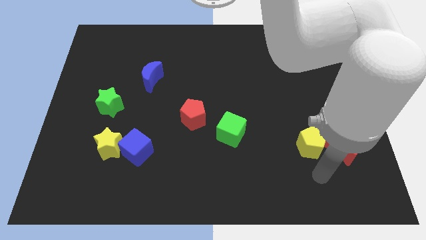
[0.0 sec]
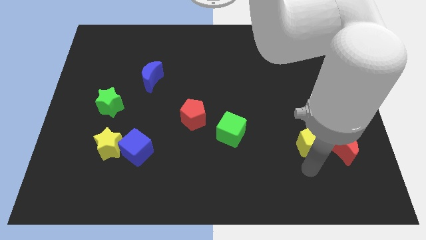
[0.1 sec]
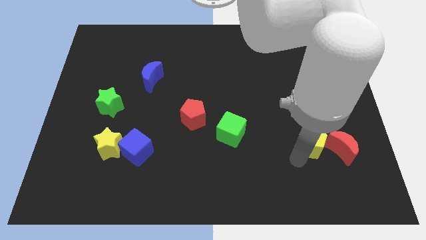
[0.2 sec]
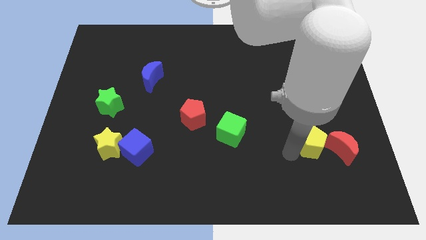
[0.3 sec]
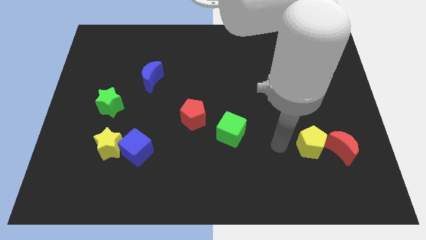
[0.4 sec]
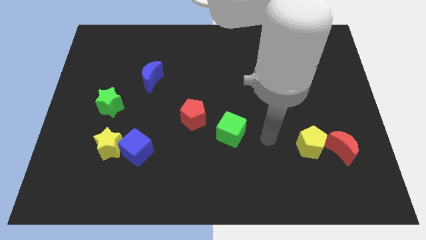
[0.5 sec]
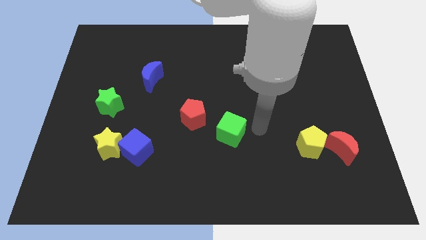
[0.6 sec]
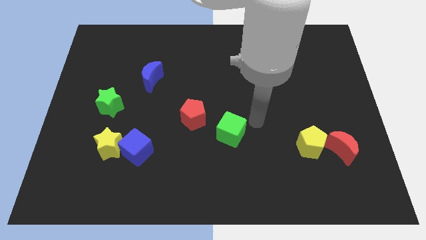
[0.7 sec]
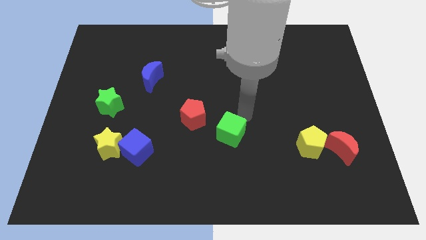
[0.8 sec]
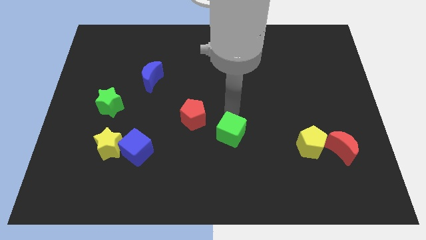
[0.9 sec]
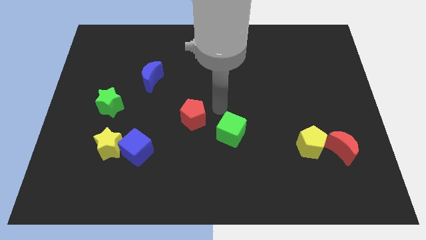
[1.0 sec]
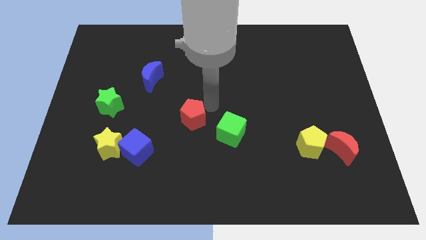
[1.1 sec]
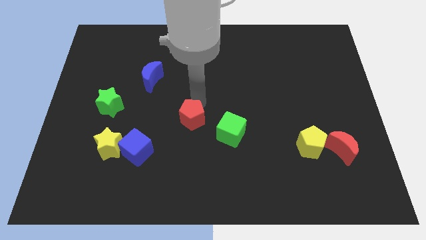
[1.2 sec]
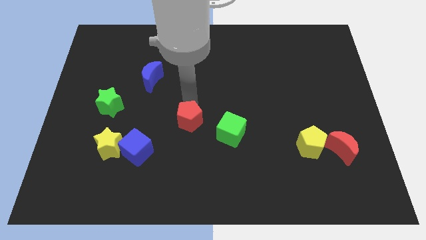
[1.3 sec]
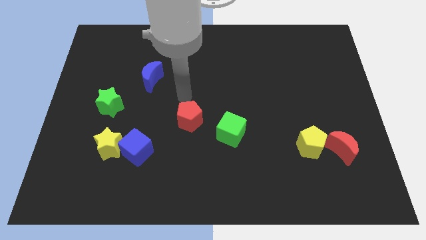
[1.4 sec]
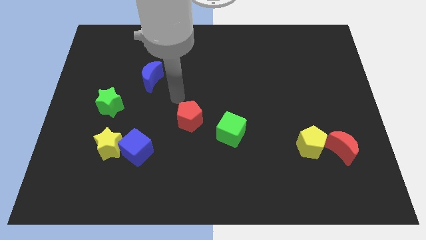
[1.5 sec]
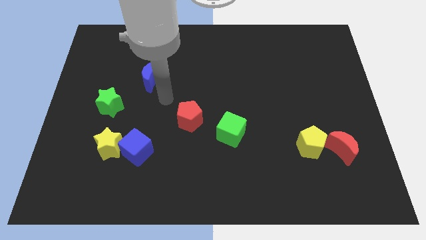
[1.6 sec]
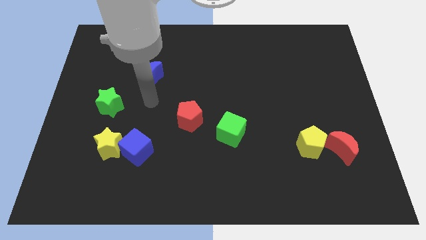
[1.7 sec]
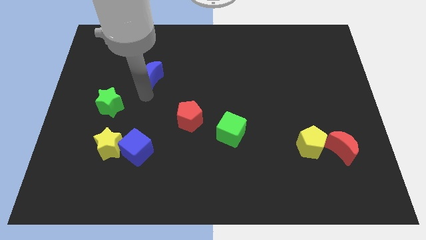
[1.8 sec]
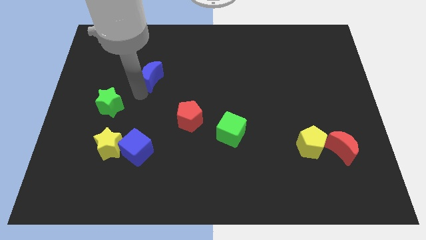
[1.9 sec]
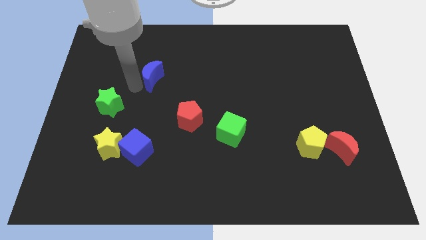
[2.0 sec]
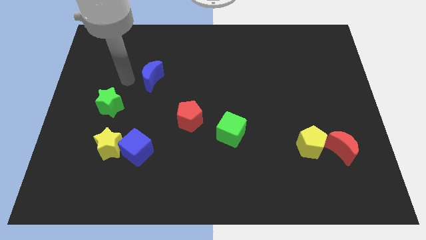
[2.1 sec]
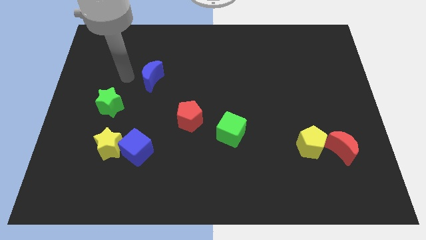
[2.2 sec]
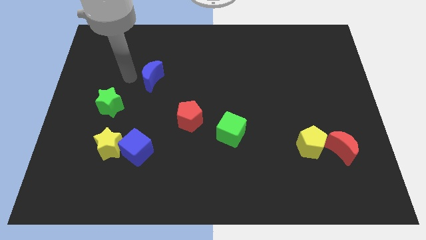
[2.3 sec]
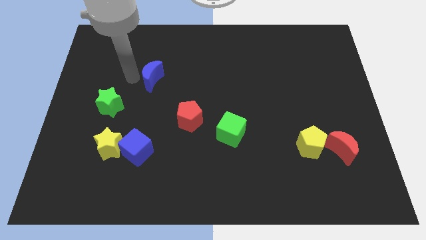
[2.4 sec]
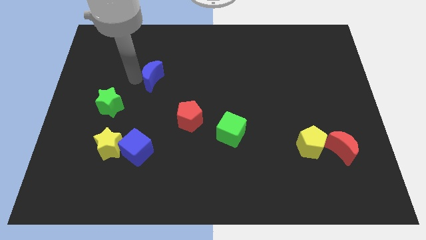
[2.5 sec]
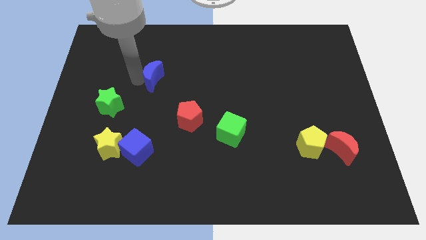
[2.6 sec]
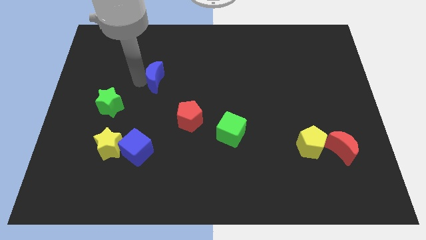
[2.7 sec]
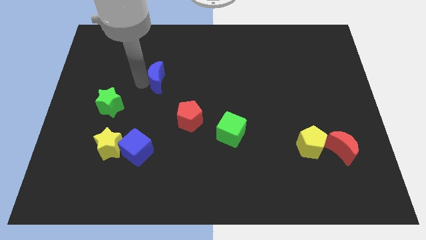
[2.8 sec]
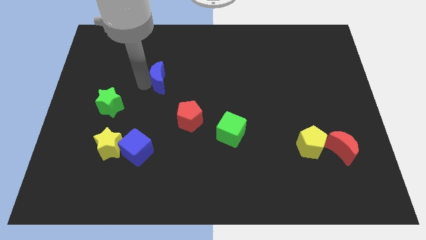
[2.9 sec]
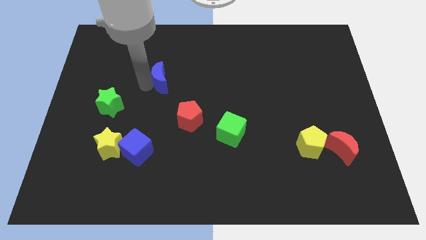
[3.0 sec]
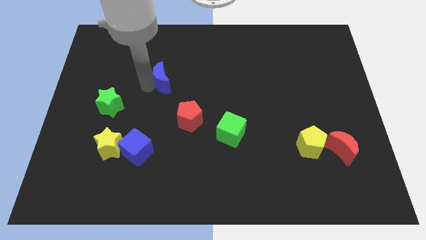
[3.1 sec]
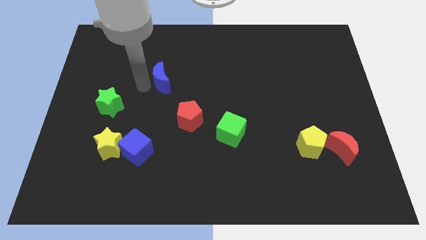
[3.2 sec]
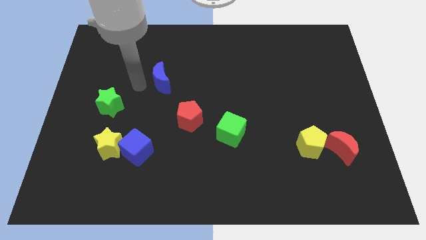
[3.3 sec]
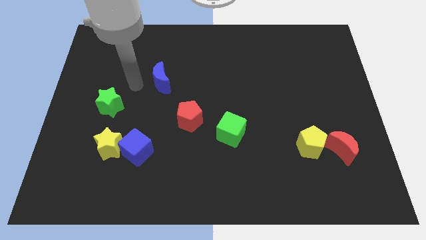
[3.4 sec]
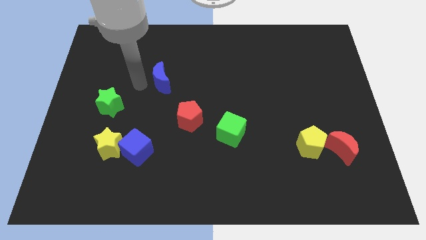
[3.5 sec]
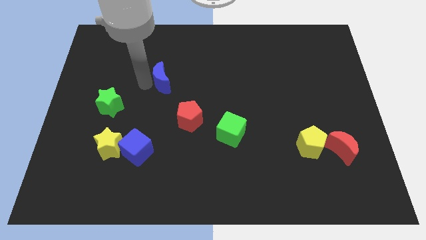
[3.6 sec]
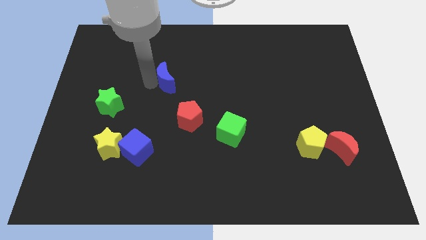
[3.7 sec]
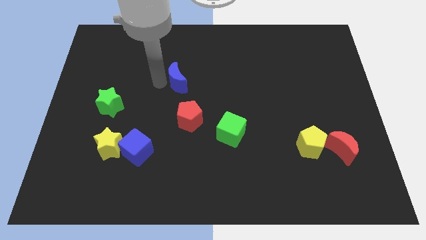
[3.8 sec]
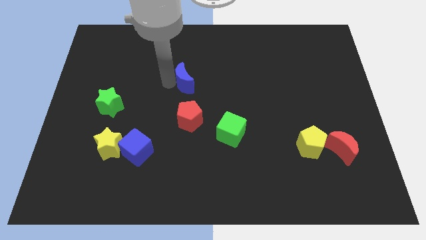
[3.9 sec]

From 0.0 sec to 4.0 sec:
slightly slide the blue moon right

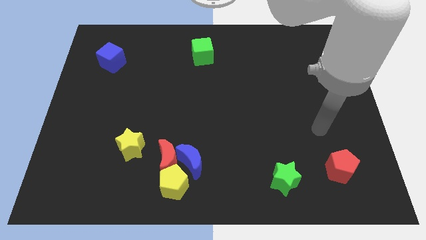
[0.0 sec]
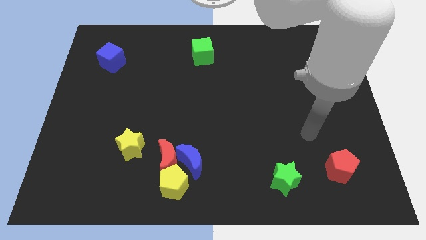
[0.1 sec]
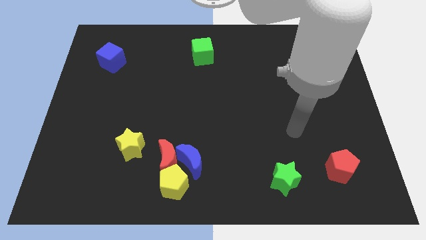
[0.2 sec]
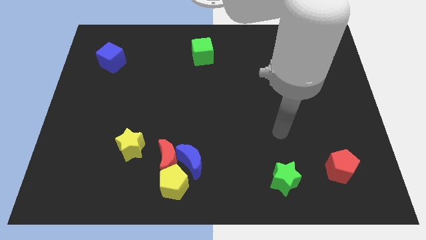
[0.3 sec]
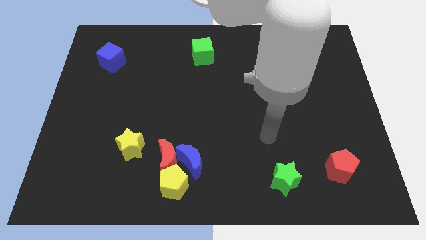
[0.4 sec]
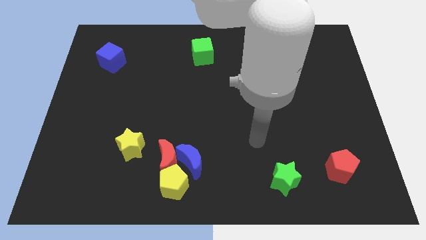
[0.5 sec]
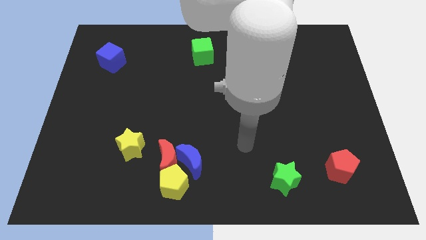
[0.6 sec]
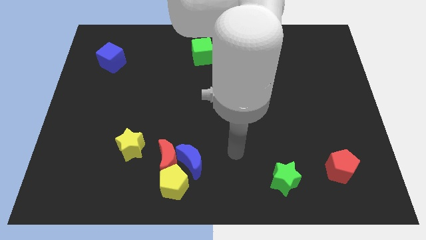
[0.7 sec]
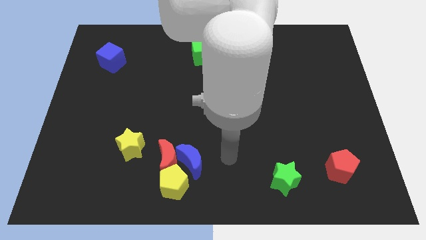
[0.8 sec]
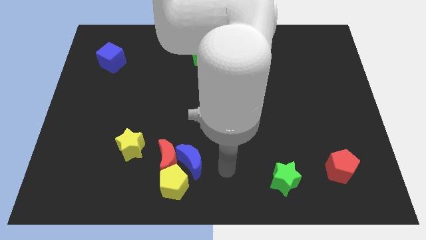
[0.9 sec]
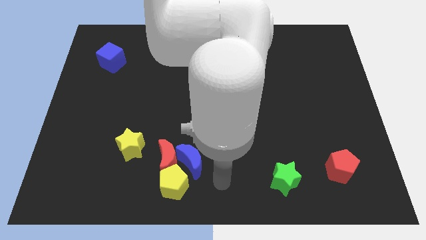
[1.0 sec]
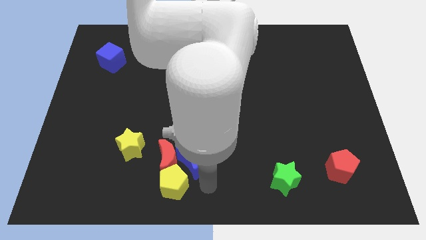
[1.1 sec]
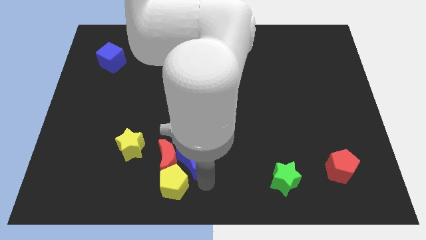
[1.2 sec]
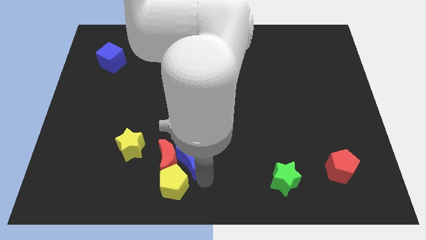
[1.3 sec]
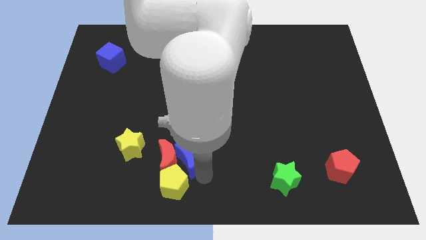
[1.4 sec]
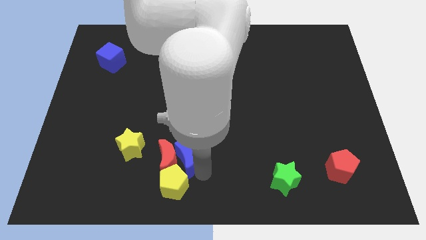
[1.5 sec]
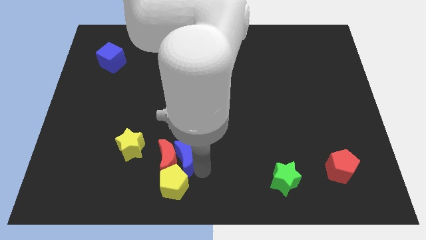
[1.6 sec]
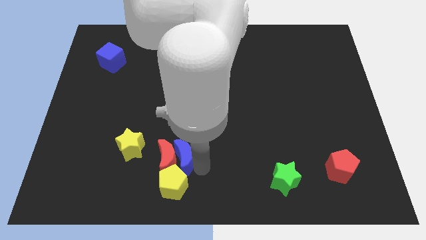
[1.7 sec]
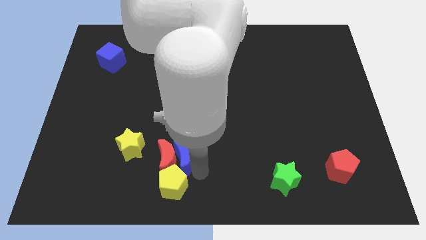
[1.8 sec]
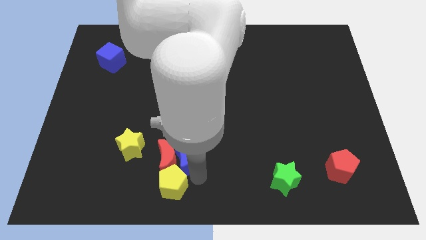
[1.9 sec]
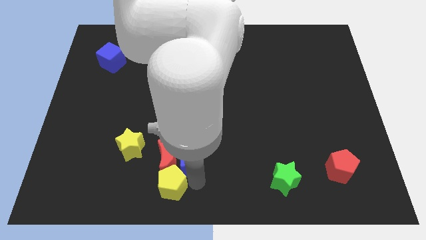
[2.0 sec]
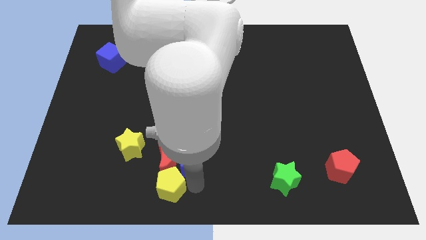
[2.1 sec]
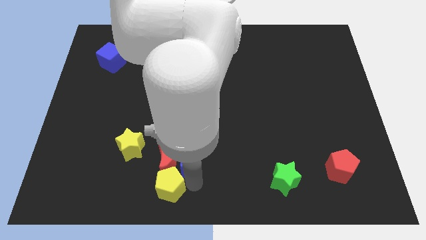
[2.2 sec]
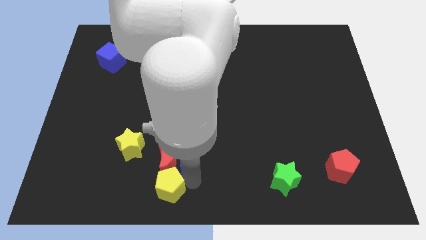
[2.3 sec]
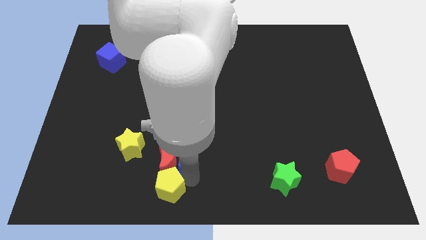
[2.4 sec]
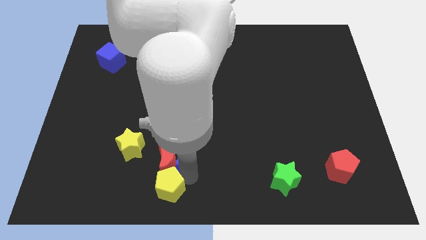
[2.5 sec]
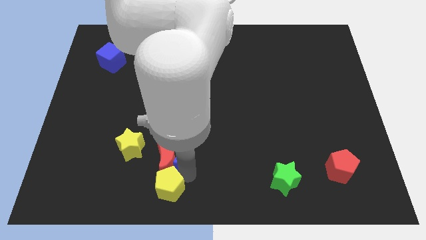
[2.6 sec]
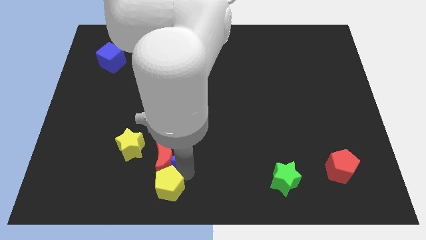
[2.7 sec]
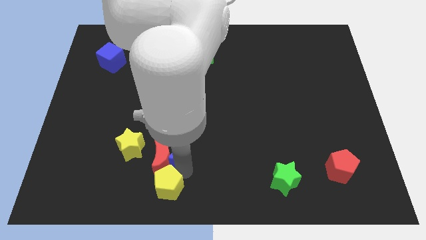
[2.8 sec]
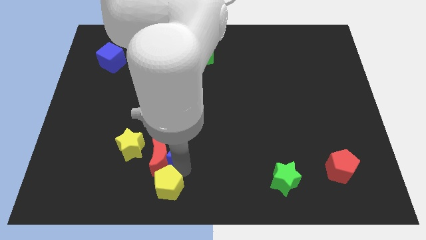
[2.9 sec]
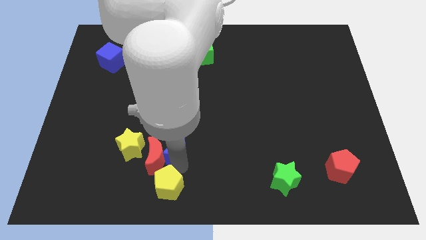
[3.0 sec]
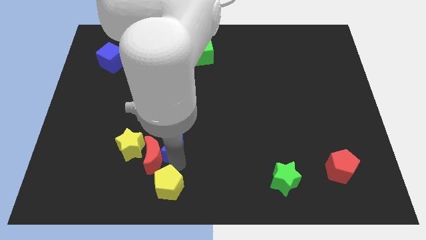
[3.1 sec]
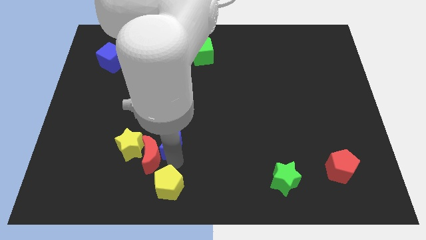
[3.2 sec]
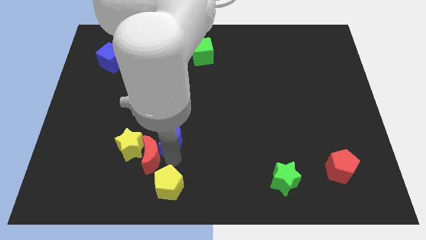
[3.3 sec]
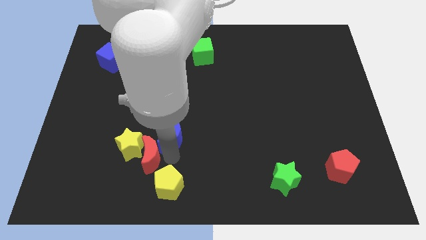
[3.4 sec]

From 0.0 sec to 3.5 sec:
push the blue moon up and then to the left slightly

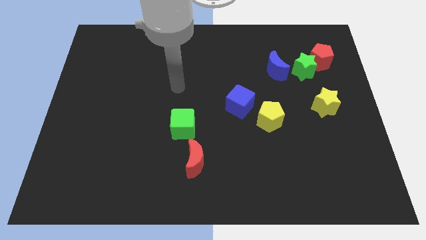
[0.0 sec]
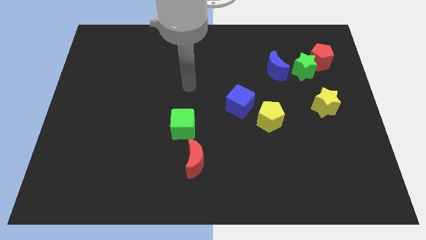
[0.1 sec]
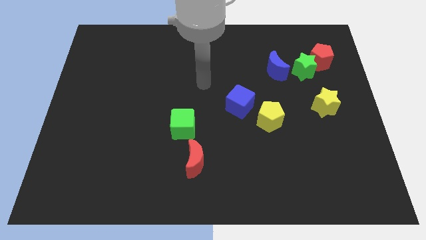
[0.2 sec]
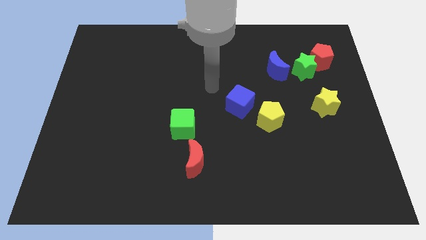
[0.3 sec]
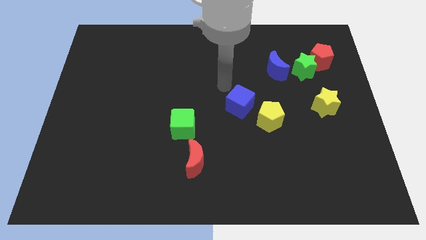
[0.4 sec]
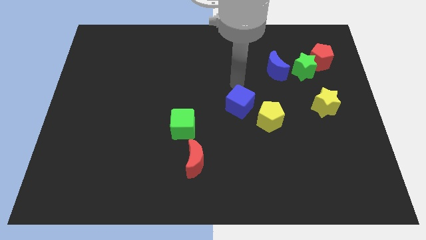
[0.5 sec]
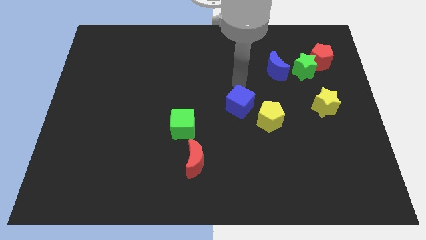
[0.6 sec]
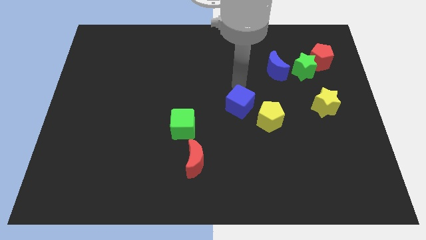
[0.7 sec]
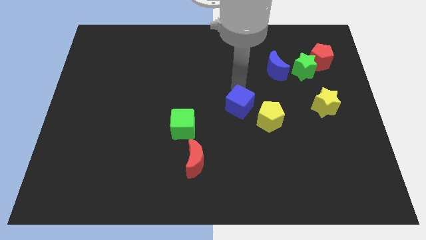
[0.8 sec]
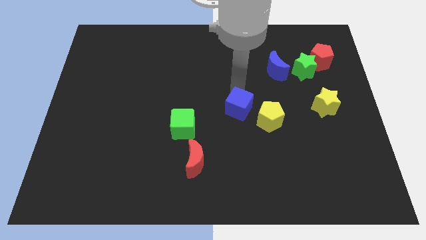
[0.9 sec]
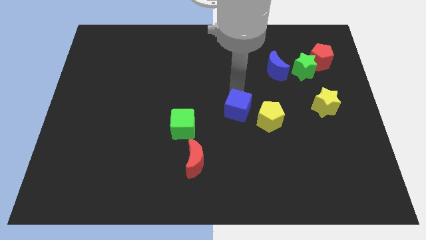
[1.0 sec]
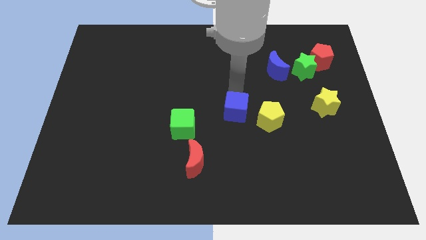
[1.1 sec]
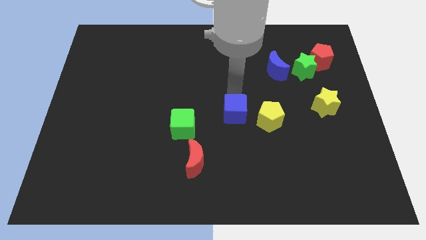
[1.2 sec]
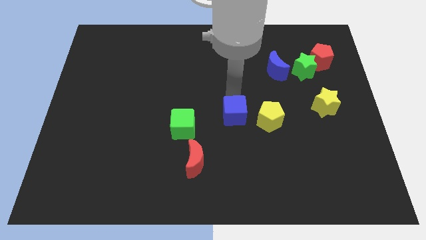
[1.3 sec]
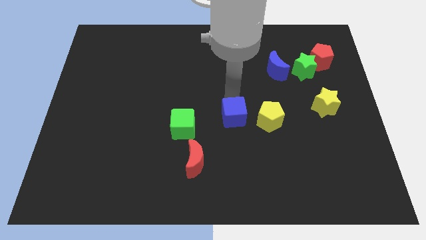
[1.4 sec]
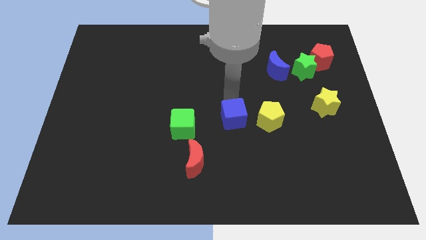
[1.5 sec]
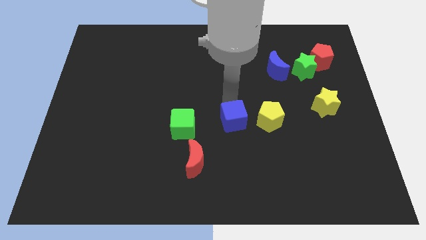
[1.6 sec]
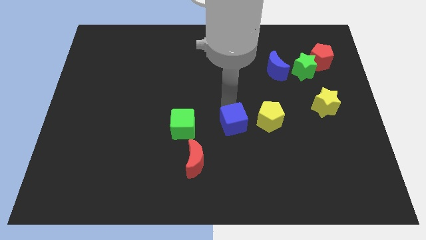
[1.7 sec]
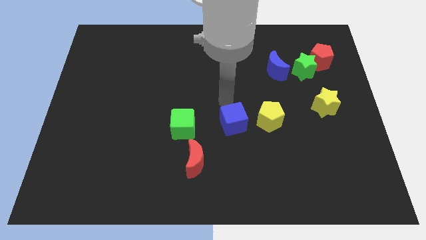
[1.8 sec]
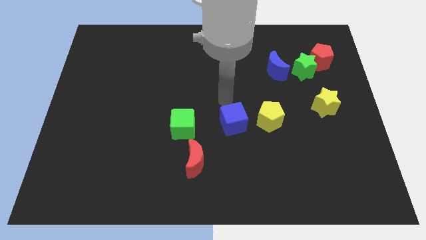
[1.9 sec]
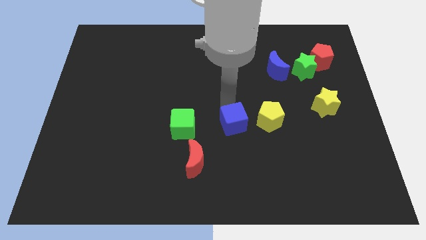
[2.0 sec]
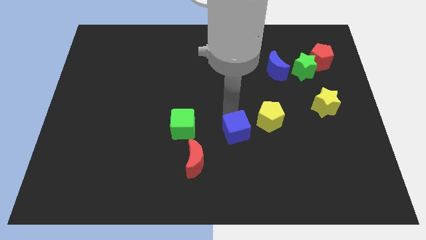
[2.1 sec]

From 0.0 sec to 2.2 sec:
move the blue cube a bit downwards
